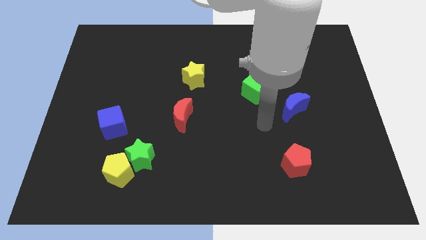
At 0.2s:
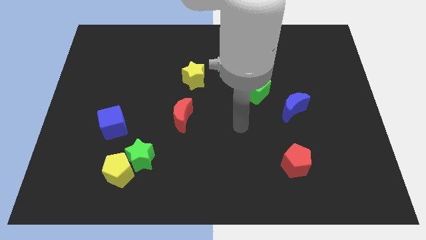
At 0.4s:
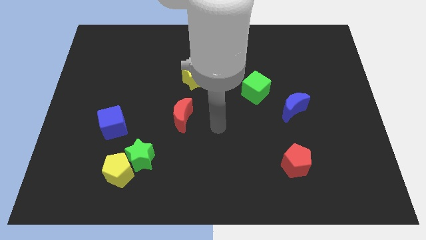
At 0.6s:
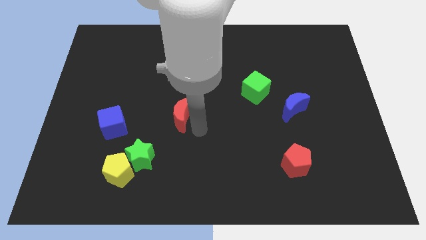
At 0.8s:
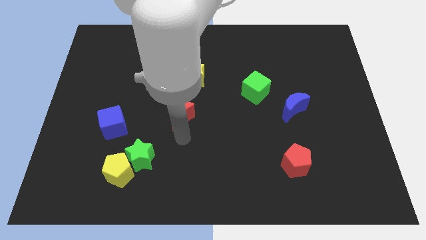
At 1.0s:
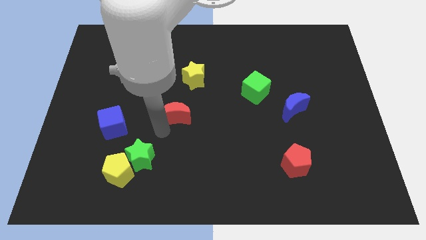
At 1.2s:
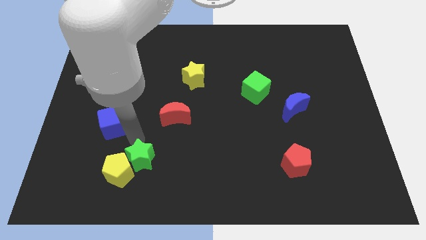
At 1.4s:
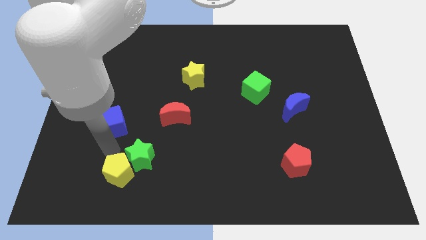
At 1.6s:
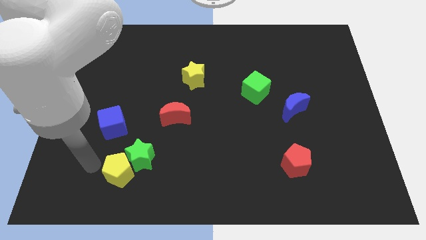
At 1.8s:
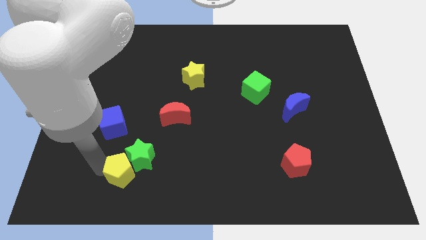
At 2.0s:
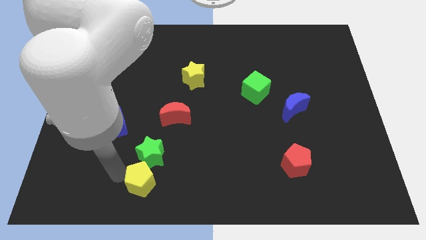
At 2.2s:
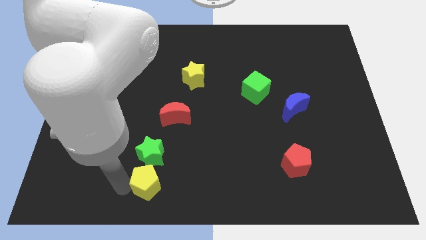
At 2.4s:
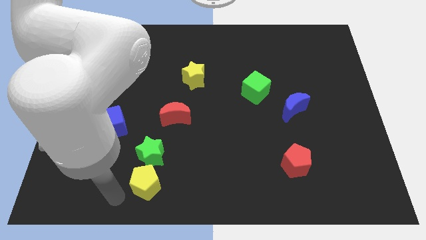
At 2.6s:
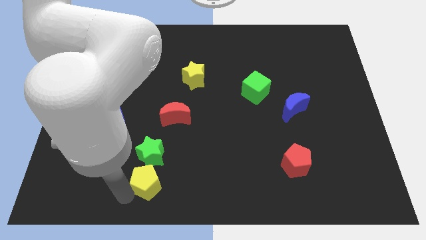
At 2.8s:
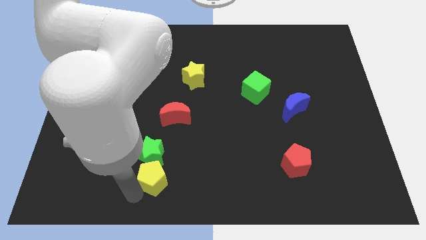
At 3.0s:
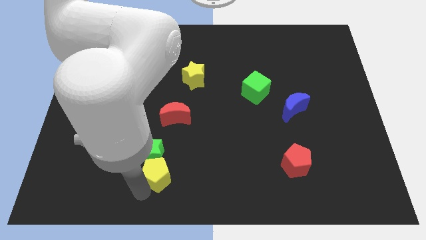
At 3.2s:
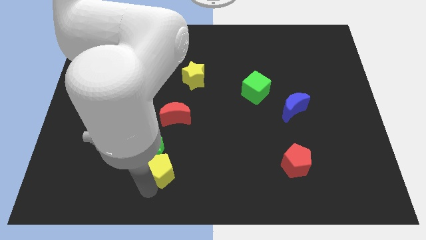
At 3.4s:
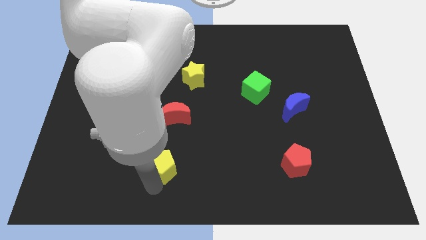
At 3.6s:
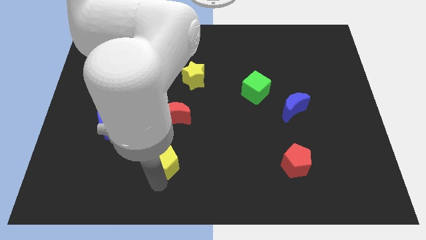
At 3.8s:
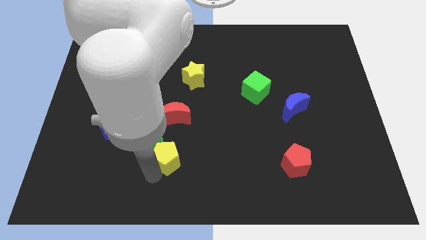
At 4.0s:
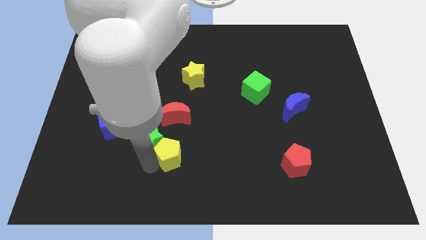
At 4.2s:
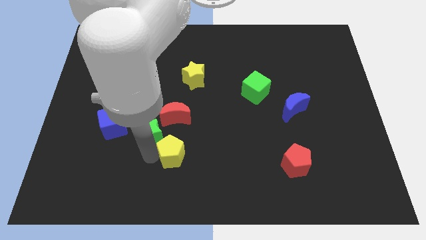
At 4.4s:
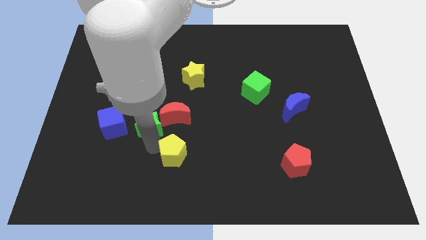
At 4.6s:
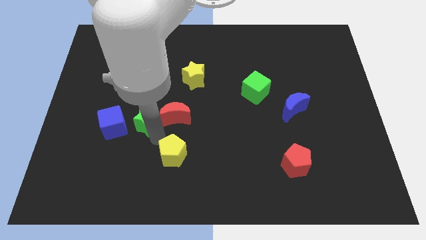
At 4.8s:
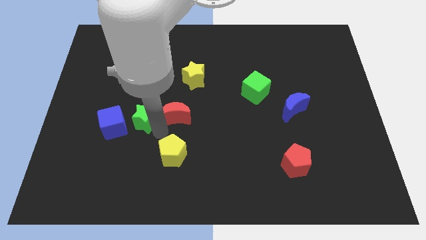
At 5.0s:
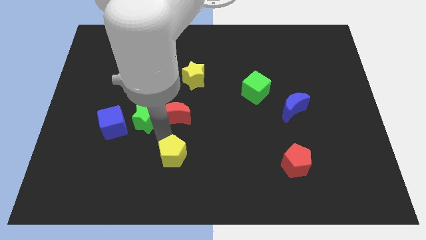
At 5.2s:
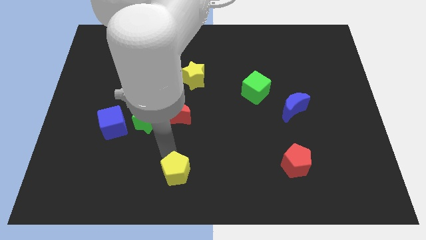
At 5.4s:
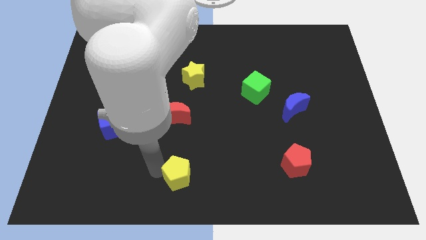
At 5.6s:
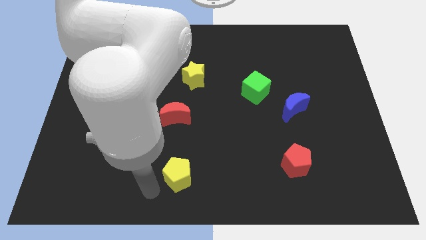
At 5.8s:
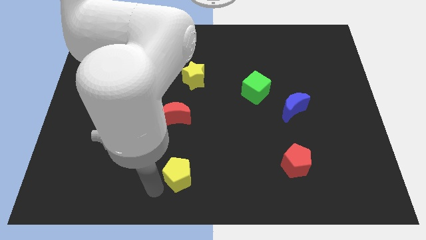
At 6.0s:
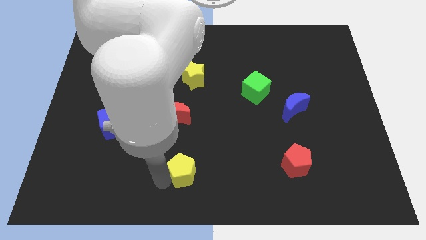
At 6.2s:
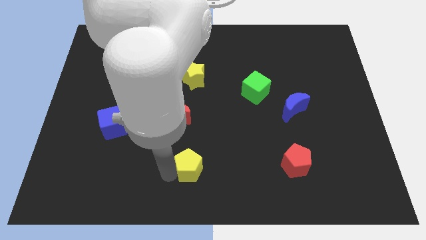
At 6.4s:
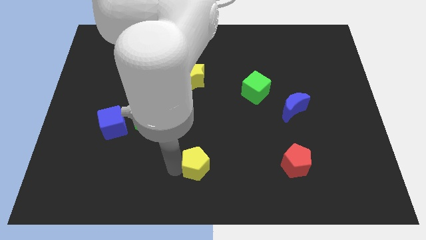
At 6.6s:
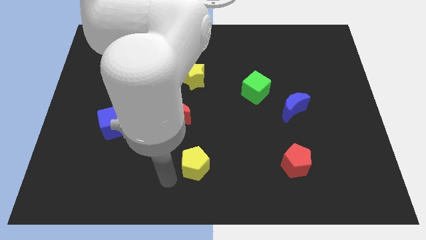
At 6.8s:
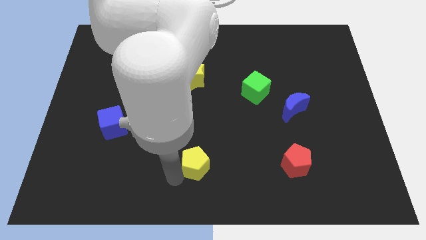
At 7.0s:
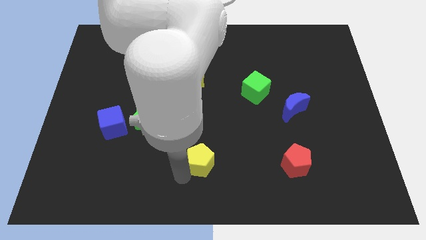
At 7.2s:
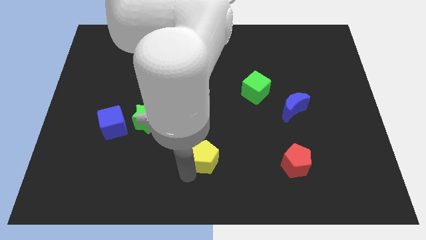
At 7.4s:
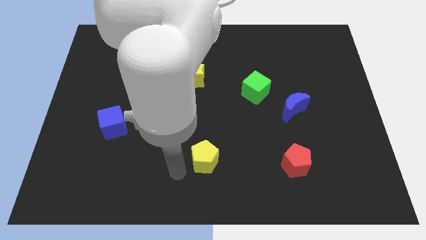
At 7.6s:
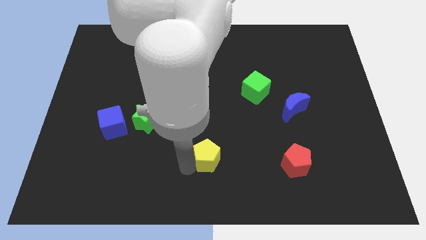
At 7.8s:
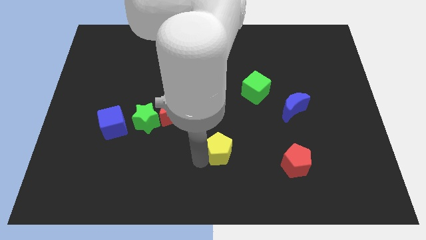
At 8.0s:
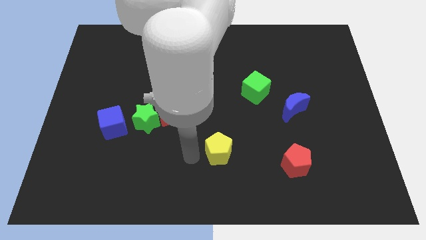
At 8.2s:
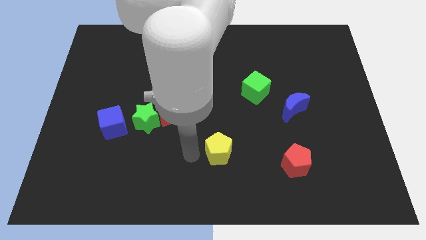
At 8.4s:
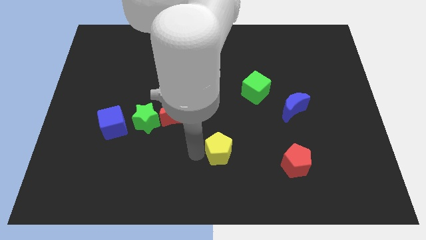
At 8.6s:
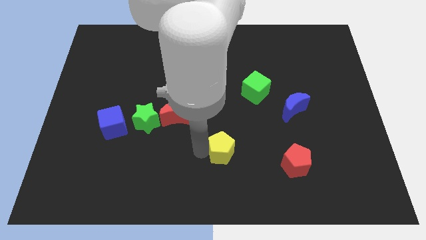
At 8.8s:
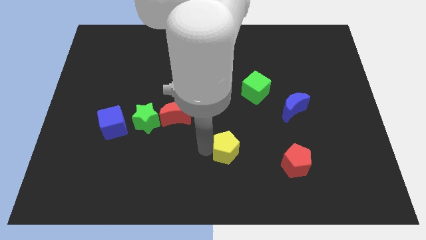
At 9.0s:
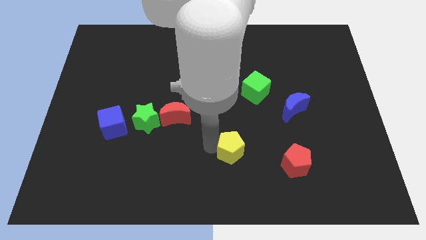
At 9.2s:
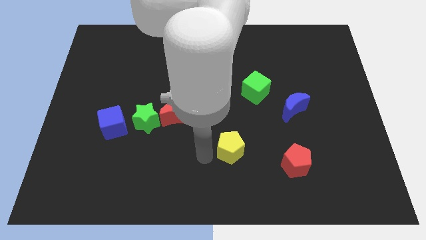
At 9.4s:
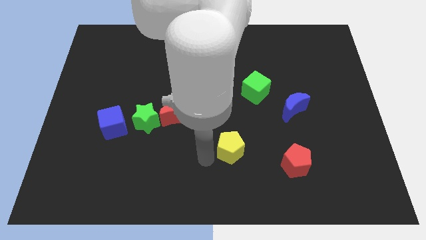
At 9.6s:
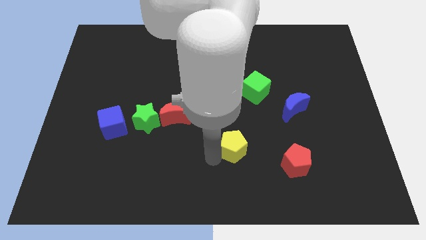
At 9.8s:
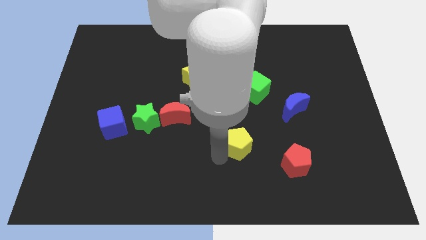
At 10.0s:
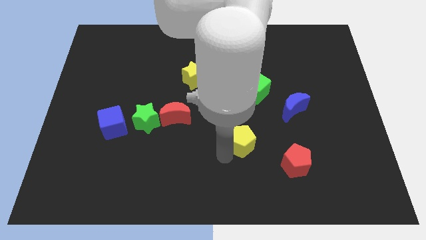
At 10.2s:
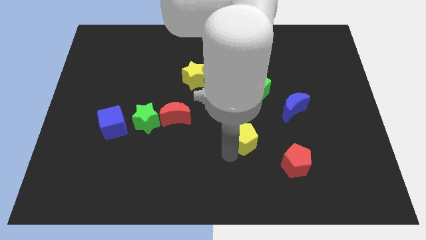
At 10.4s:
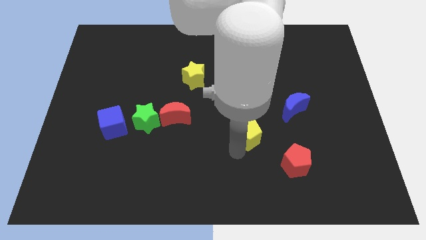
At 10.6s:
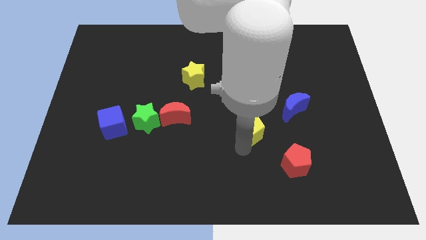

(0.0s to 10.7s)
slide the yellow pentagon to the bottom left side of the blue moon

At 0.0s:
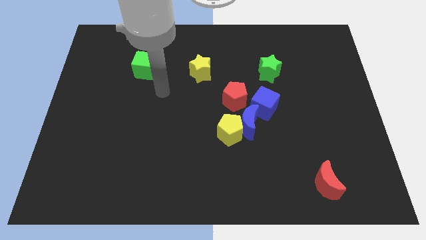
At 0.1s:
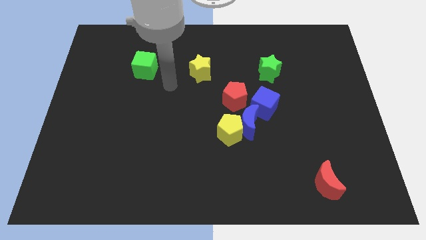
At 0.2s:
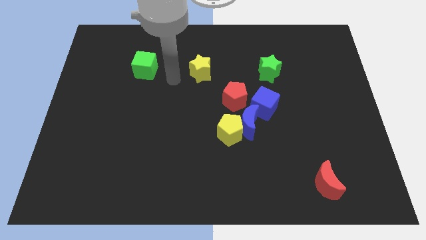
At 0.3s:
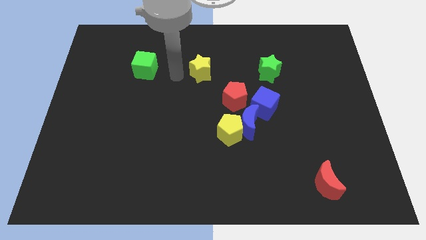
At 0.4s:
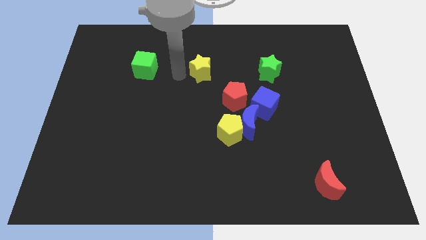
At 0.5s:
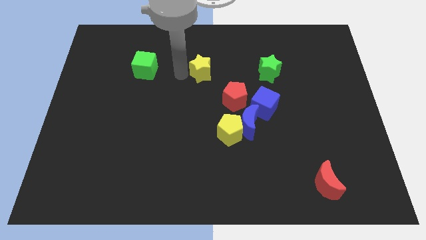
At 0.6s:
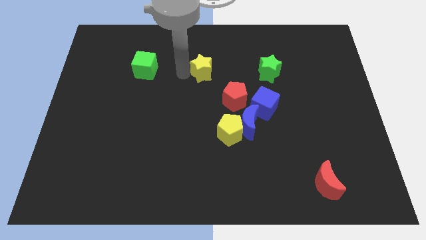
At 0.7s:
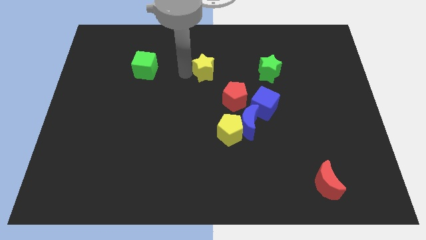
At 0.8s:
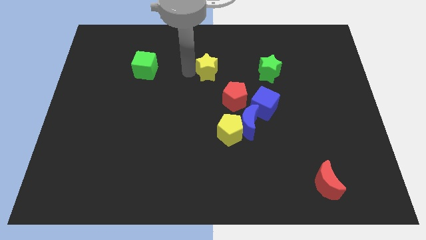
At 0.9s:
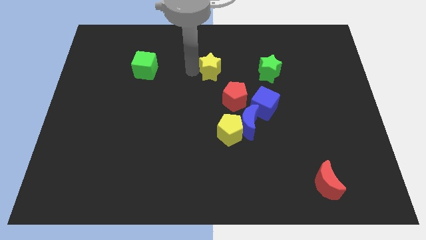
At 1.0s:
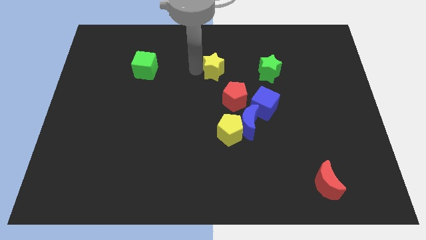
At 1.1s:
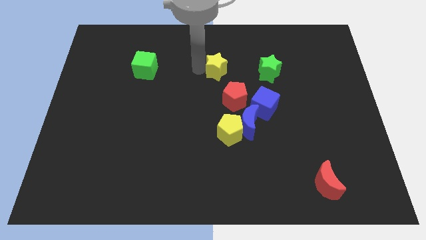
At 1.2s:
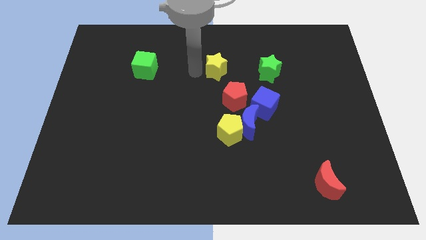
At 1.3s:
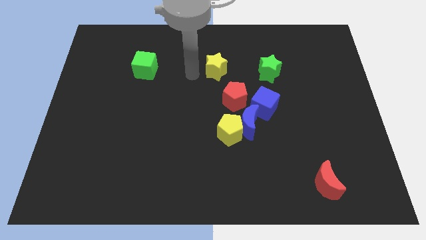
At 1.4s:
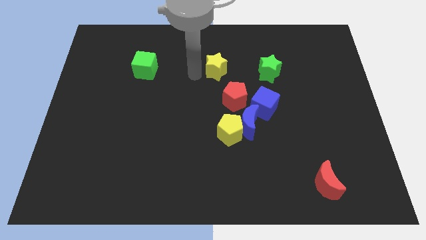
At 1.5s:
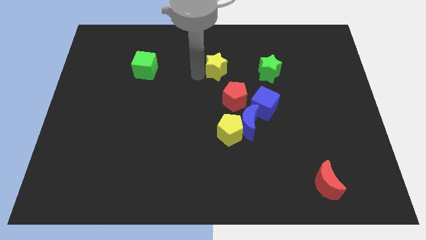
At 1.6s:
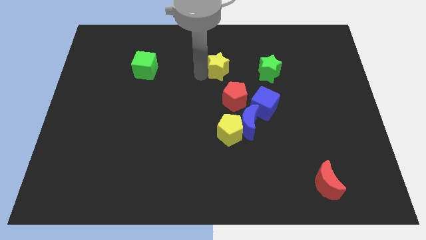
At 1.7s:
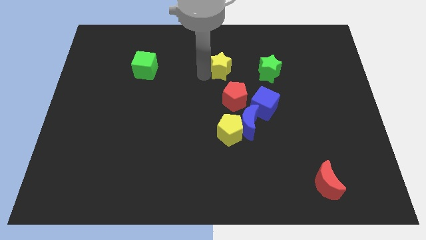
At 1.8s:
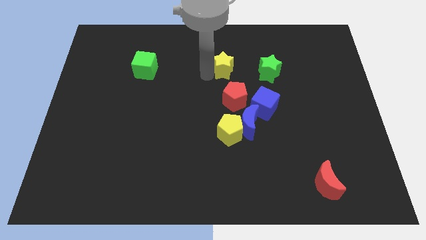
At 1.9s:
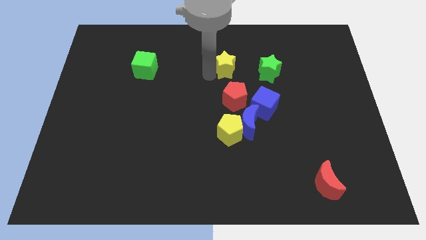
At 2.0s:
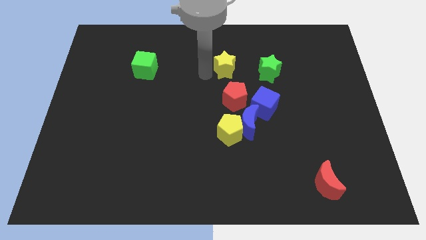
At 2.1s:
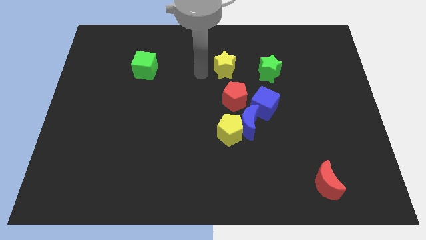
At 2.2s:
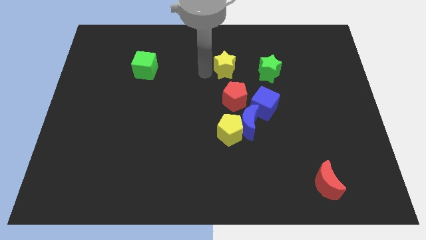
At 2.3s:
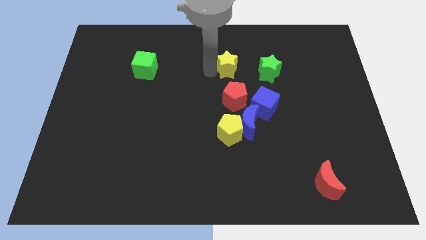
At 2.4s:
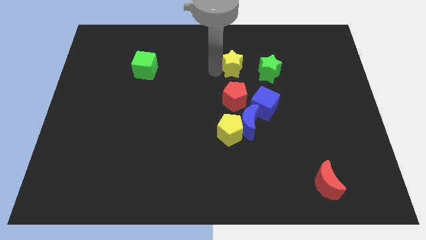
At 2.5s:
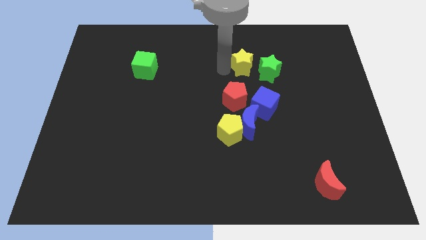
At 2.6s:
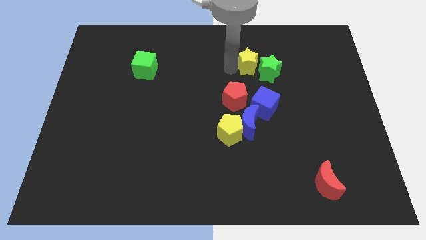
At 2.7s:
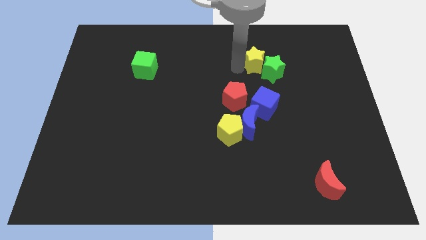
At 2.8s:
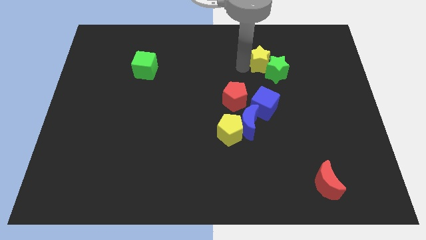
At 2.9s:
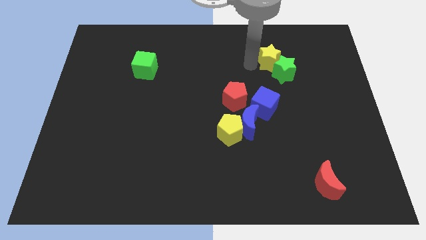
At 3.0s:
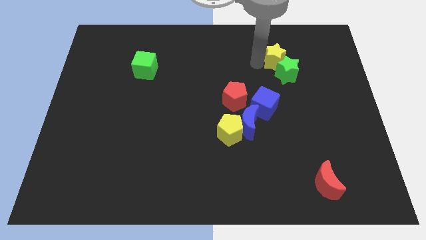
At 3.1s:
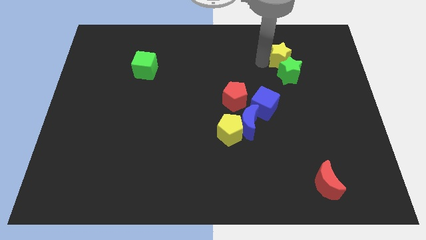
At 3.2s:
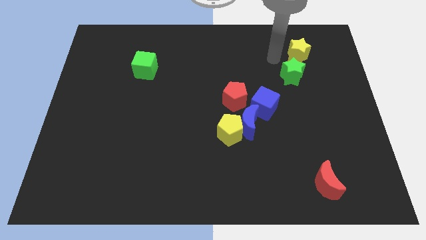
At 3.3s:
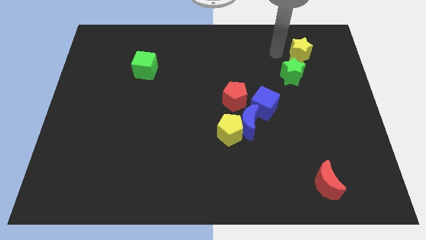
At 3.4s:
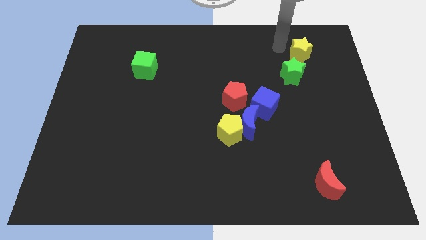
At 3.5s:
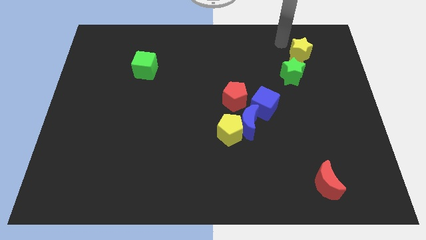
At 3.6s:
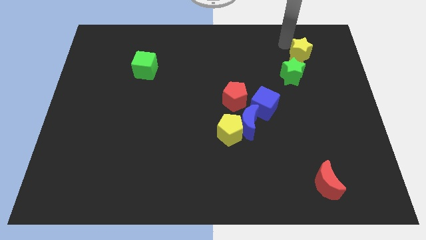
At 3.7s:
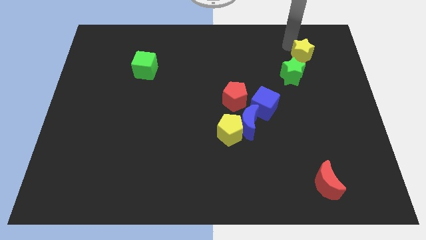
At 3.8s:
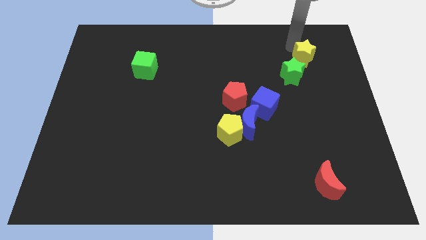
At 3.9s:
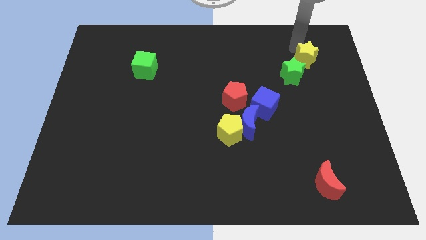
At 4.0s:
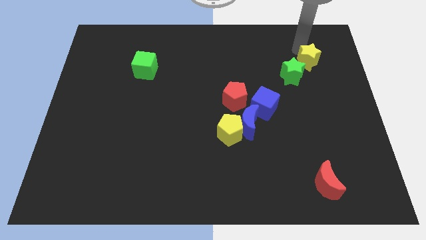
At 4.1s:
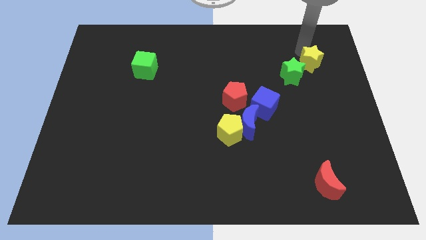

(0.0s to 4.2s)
slide the yellow star just right of the green star
